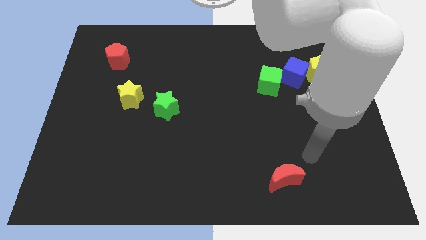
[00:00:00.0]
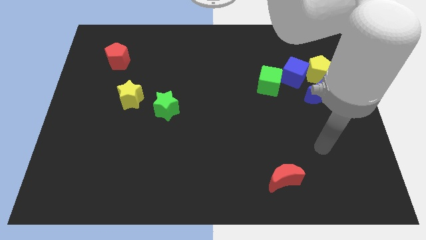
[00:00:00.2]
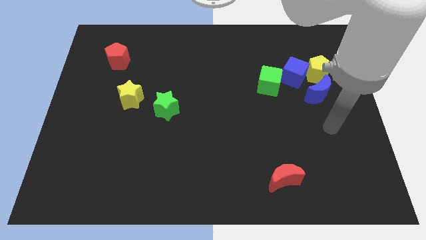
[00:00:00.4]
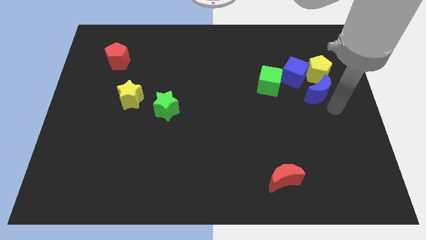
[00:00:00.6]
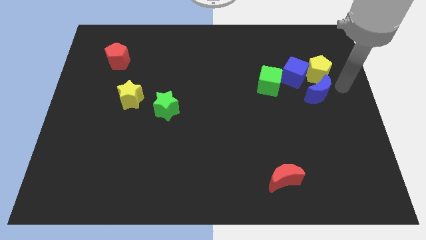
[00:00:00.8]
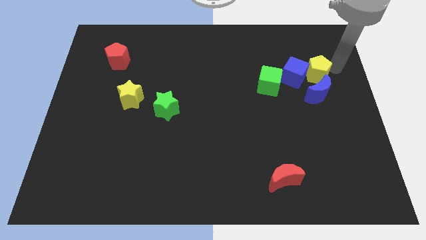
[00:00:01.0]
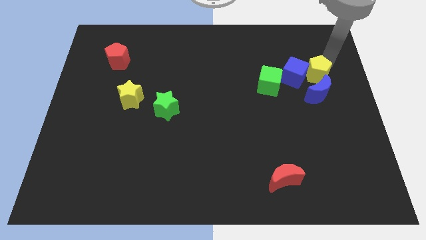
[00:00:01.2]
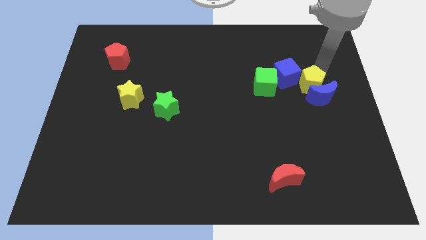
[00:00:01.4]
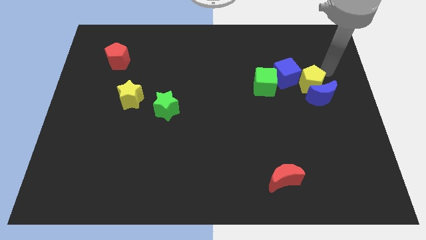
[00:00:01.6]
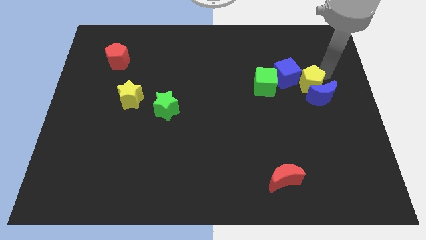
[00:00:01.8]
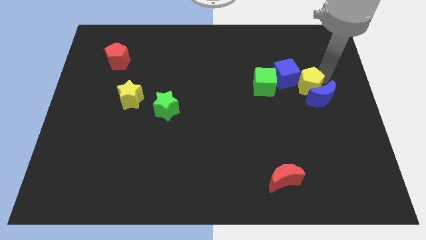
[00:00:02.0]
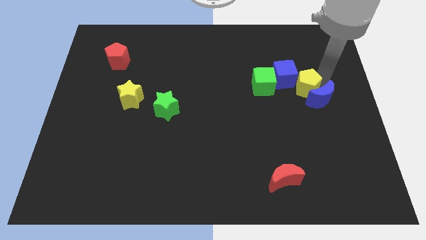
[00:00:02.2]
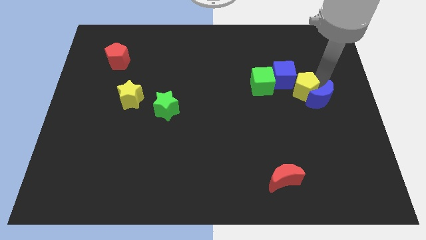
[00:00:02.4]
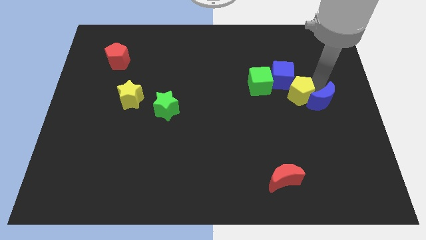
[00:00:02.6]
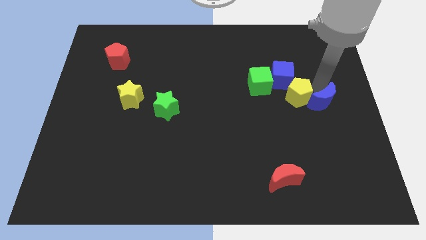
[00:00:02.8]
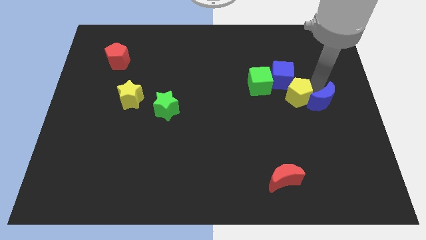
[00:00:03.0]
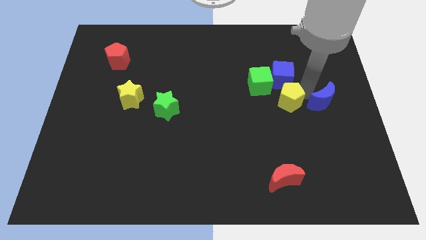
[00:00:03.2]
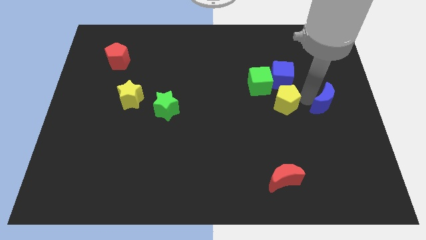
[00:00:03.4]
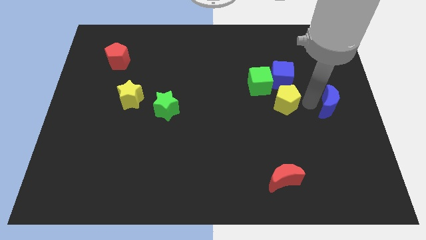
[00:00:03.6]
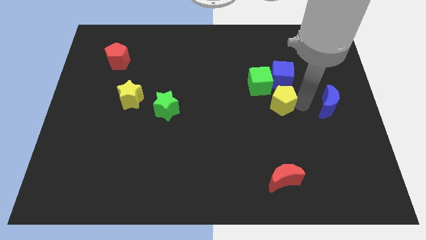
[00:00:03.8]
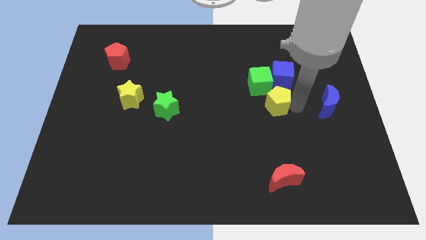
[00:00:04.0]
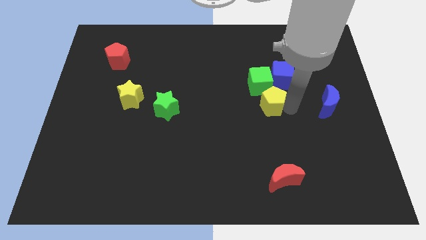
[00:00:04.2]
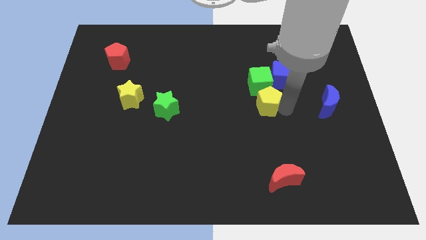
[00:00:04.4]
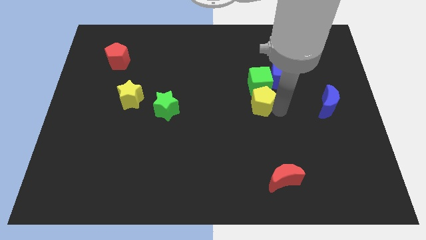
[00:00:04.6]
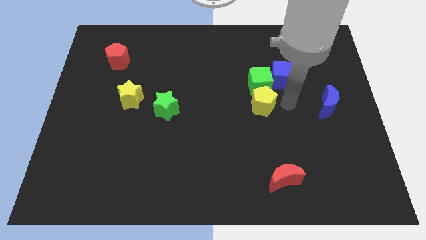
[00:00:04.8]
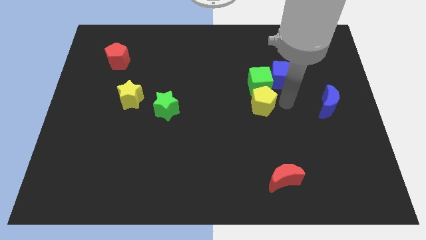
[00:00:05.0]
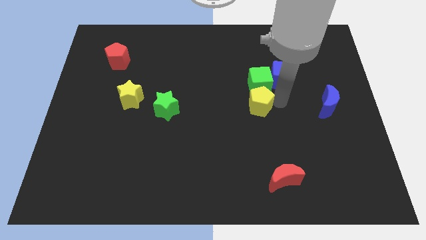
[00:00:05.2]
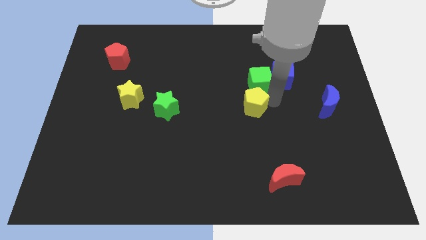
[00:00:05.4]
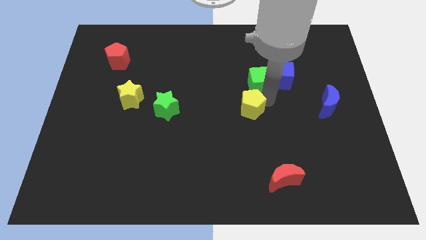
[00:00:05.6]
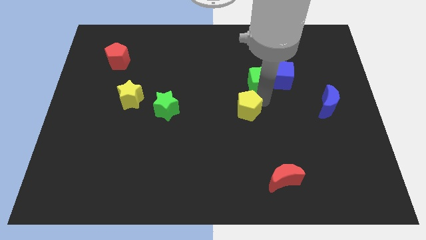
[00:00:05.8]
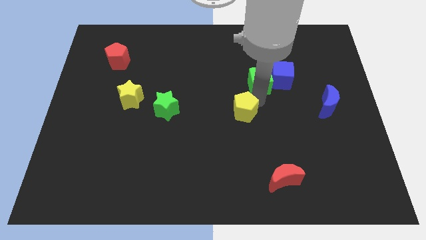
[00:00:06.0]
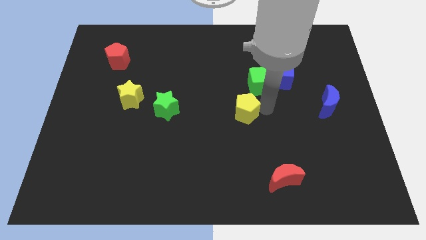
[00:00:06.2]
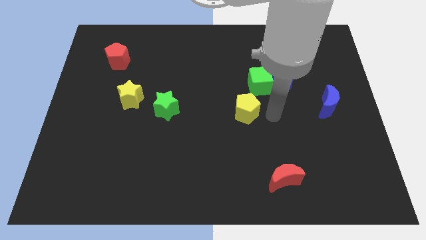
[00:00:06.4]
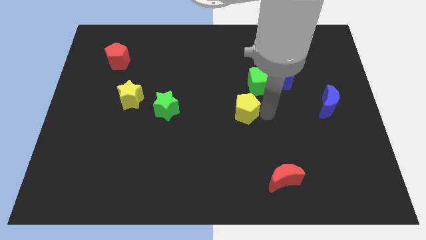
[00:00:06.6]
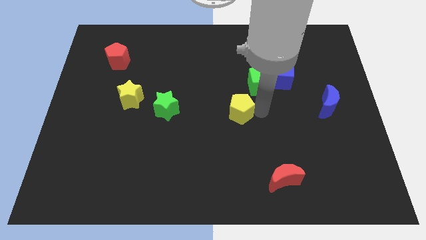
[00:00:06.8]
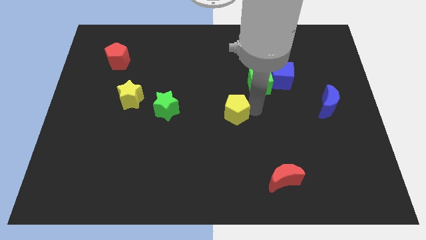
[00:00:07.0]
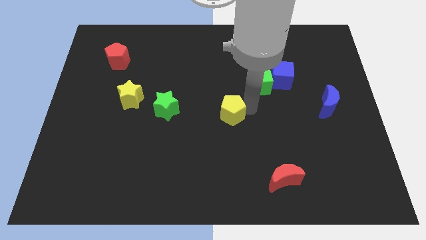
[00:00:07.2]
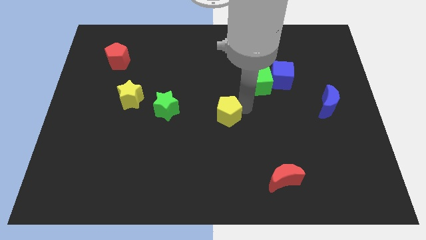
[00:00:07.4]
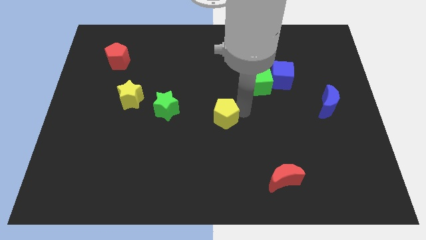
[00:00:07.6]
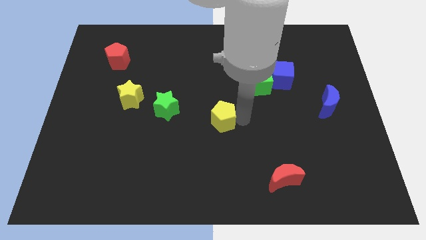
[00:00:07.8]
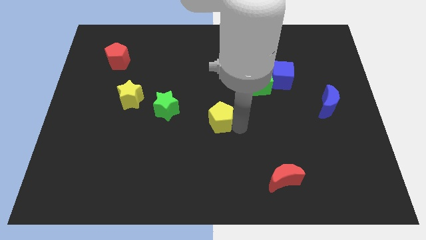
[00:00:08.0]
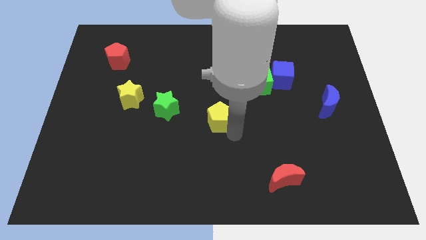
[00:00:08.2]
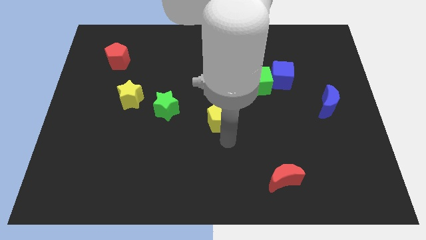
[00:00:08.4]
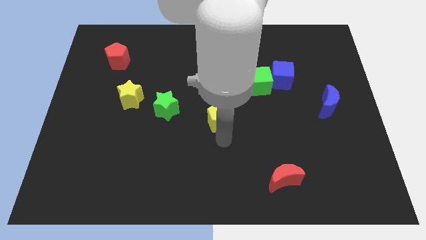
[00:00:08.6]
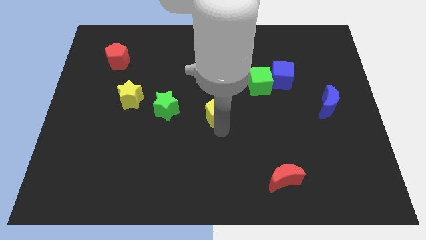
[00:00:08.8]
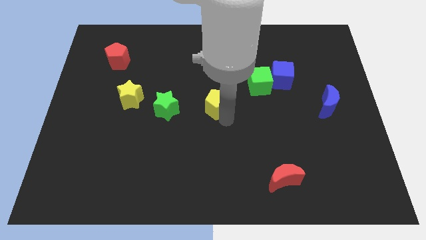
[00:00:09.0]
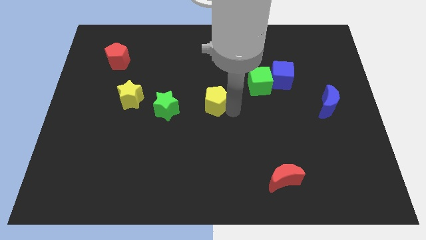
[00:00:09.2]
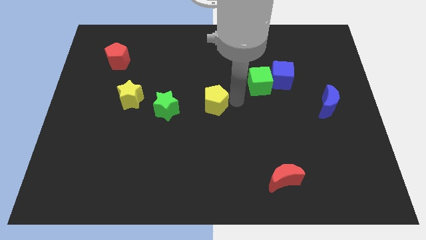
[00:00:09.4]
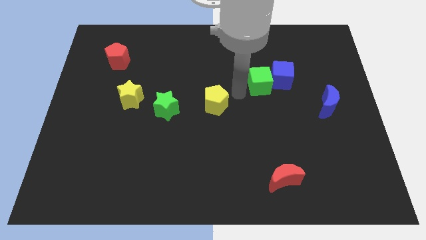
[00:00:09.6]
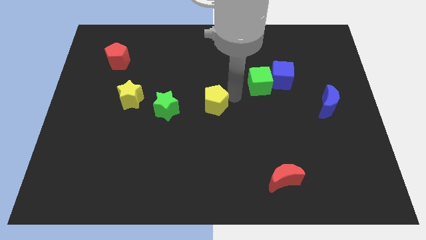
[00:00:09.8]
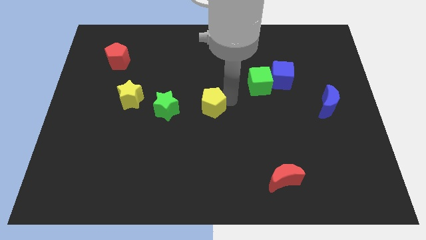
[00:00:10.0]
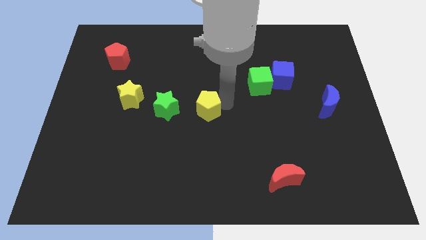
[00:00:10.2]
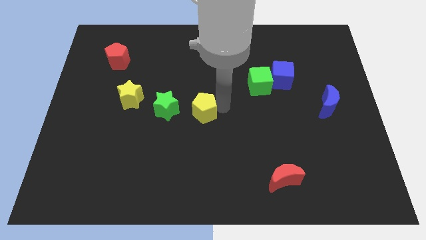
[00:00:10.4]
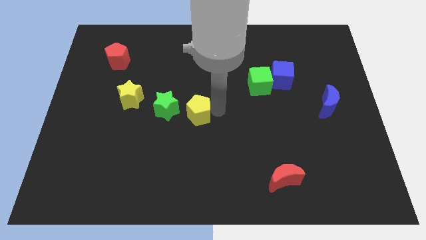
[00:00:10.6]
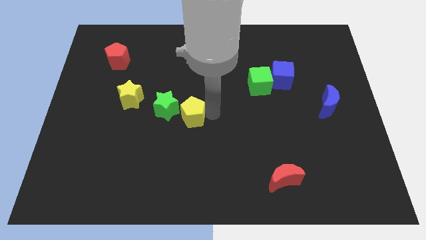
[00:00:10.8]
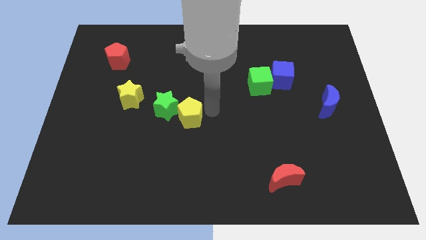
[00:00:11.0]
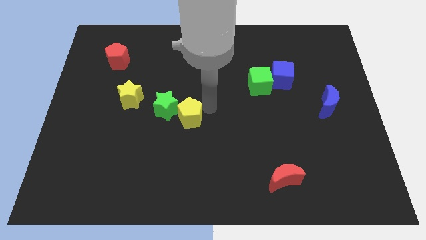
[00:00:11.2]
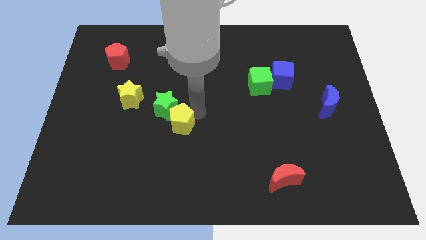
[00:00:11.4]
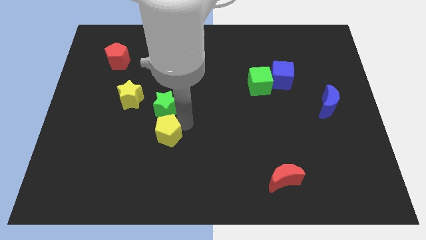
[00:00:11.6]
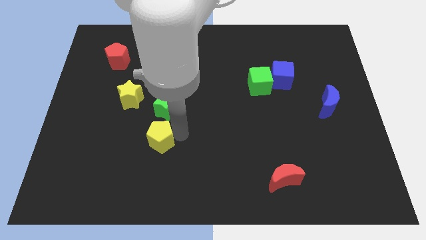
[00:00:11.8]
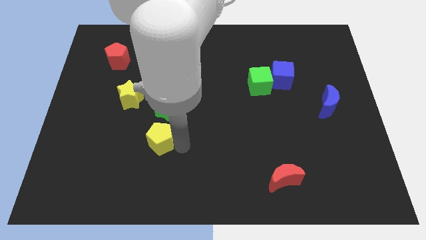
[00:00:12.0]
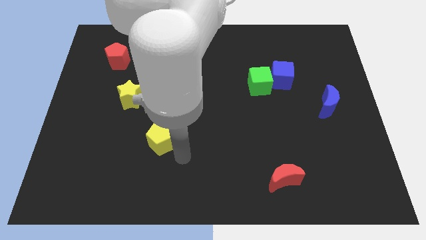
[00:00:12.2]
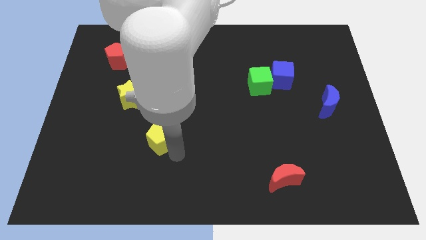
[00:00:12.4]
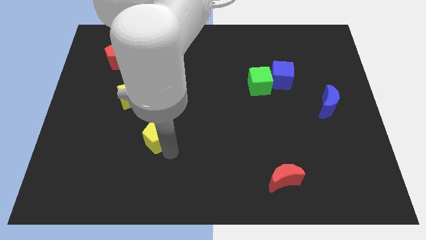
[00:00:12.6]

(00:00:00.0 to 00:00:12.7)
move the yellow pentagon diagonally down and to the left of the green star

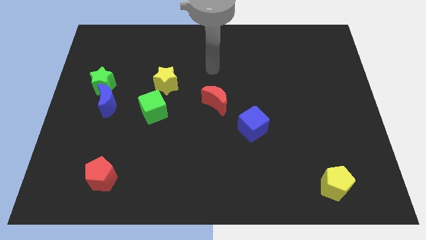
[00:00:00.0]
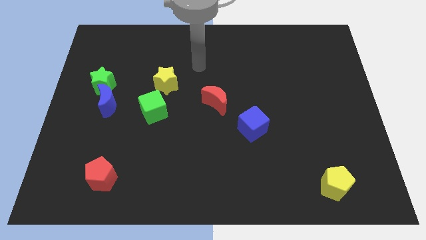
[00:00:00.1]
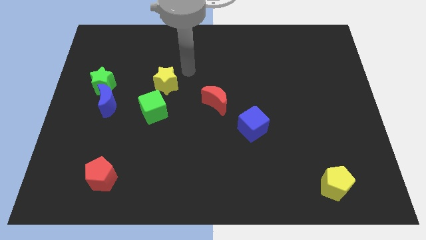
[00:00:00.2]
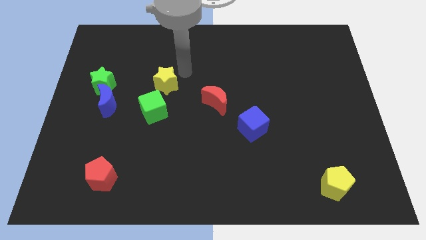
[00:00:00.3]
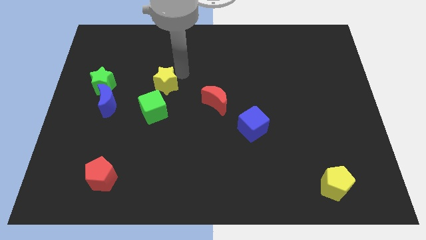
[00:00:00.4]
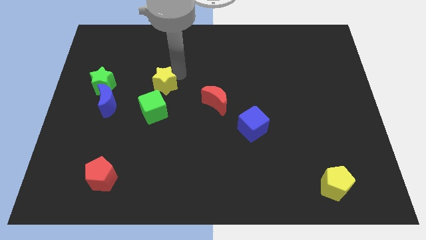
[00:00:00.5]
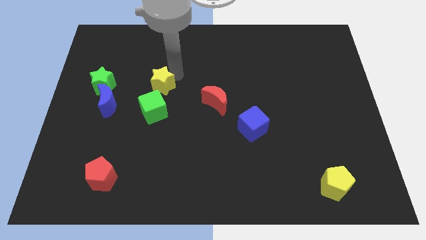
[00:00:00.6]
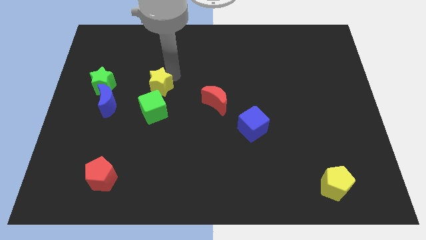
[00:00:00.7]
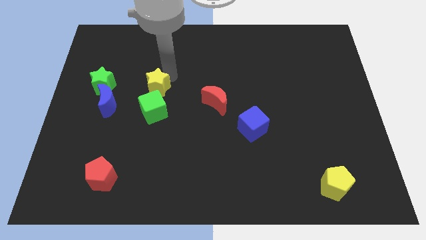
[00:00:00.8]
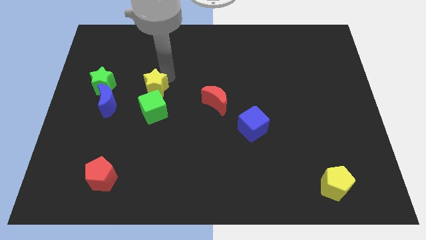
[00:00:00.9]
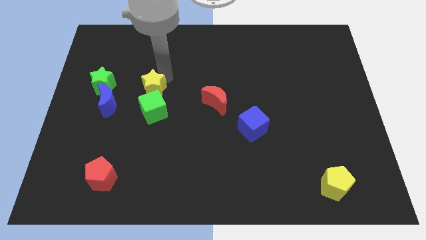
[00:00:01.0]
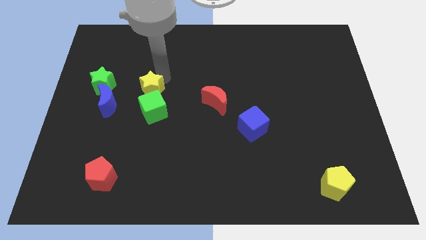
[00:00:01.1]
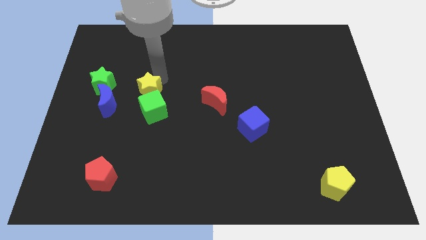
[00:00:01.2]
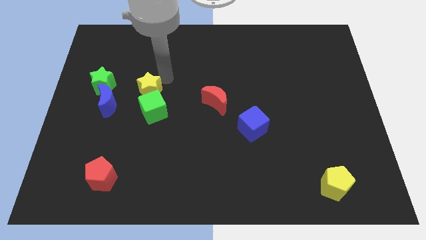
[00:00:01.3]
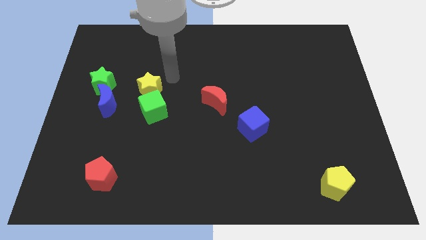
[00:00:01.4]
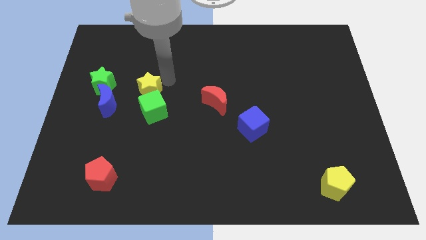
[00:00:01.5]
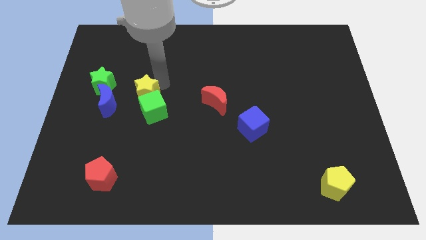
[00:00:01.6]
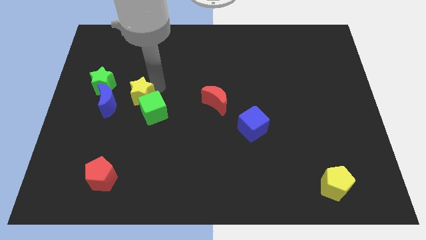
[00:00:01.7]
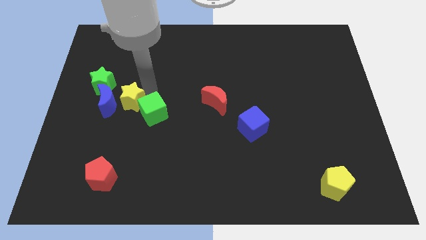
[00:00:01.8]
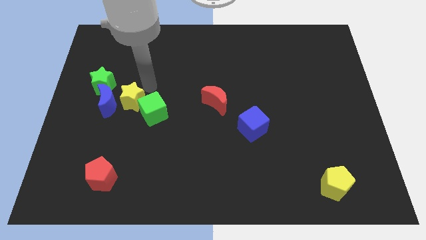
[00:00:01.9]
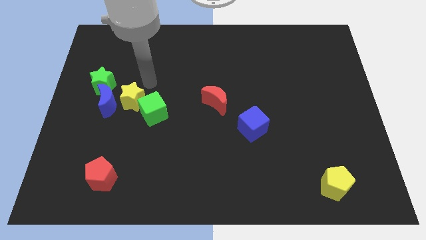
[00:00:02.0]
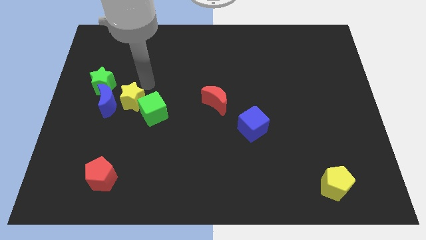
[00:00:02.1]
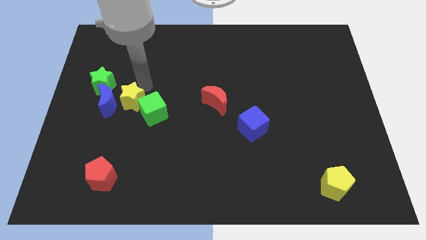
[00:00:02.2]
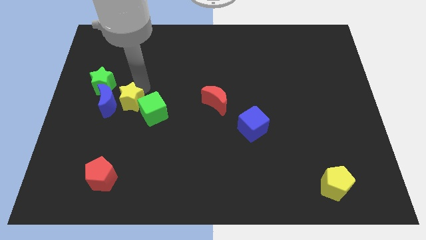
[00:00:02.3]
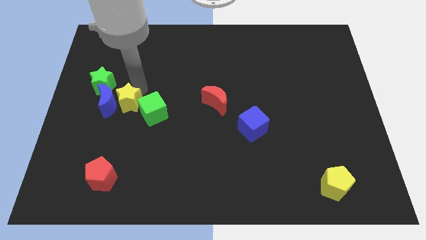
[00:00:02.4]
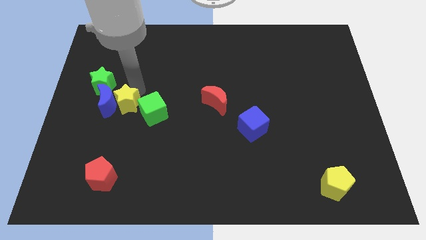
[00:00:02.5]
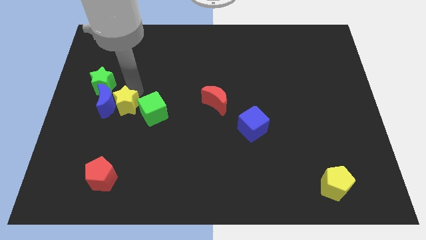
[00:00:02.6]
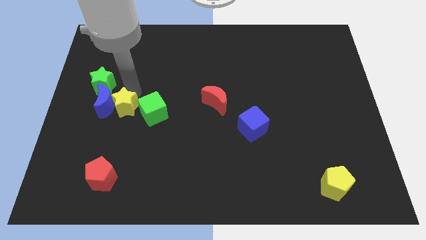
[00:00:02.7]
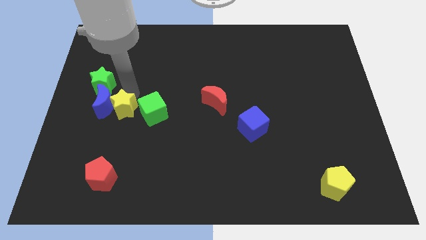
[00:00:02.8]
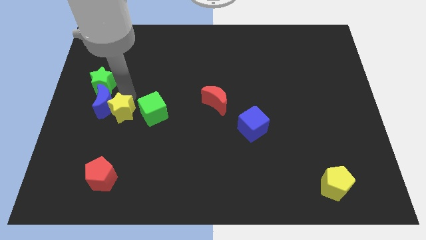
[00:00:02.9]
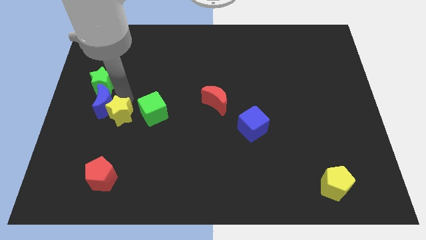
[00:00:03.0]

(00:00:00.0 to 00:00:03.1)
push the yellow star to the bottom side of the blue moon
